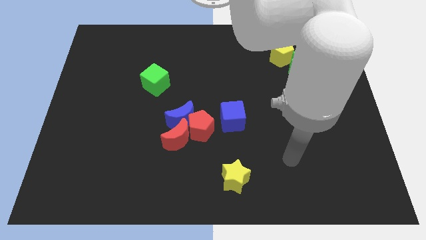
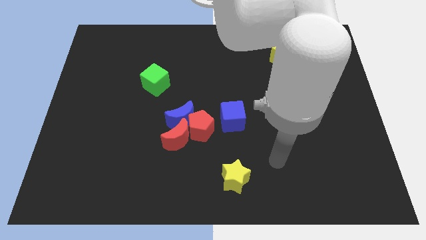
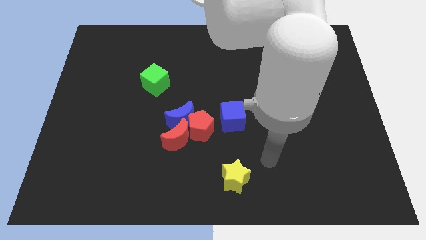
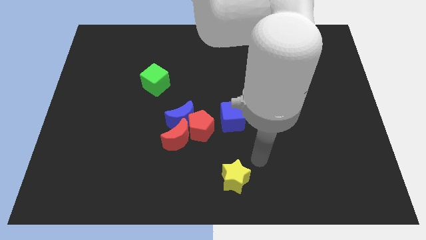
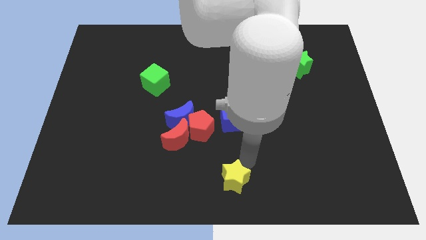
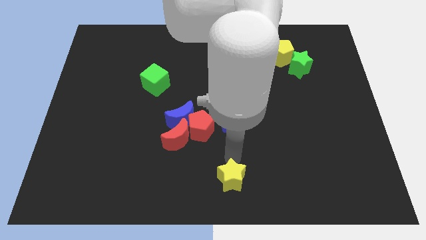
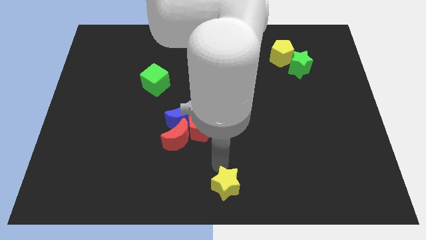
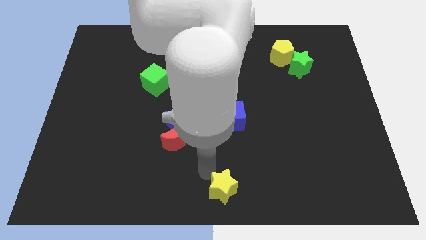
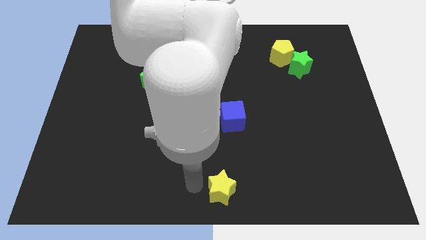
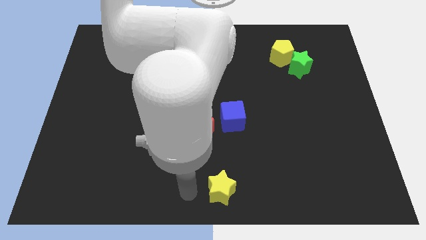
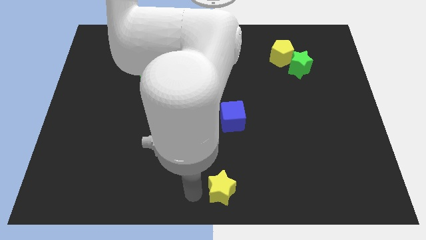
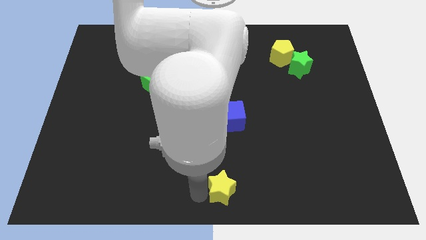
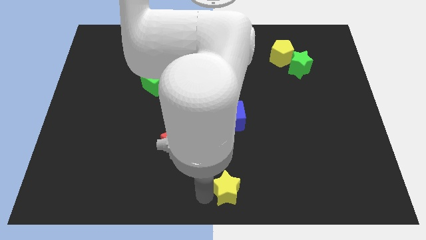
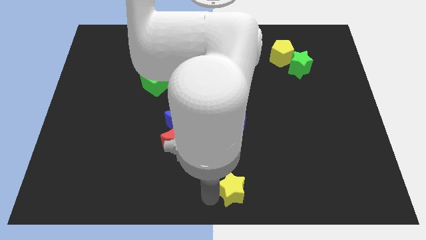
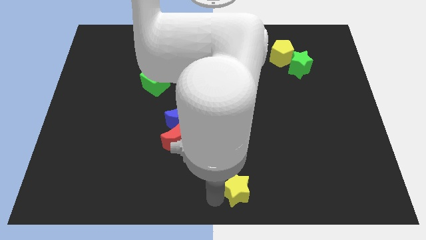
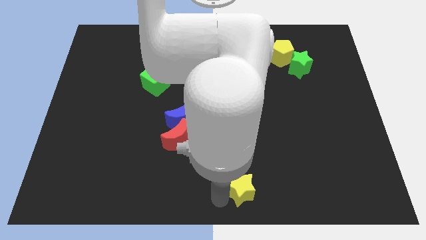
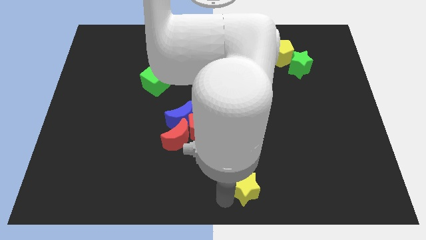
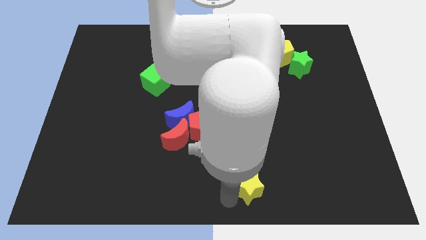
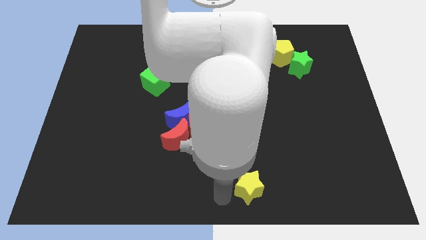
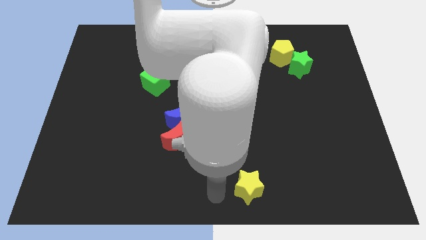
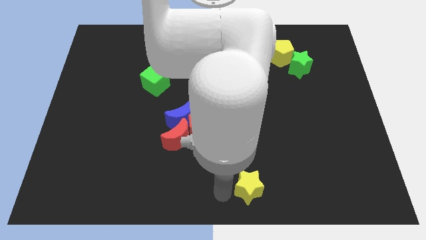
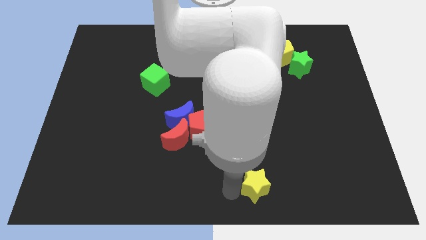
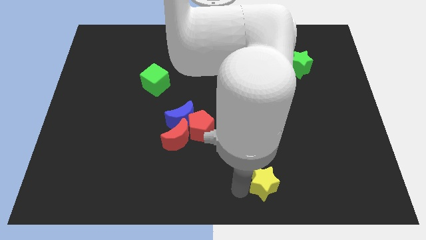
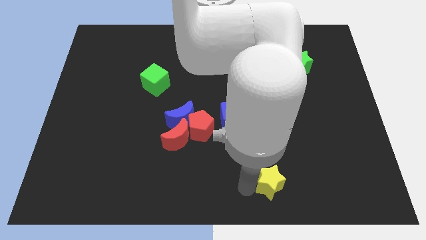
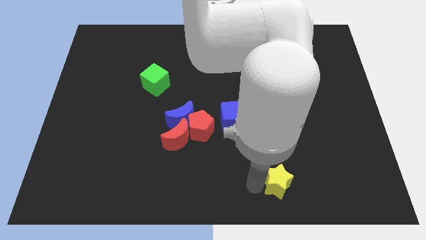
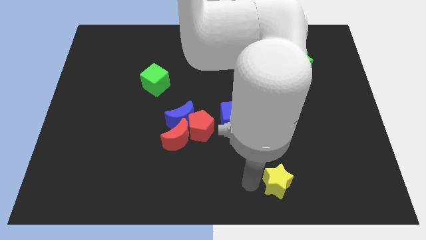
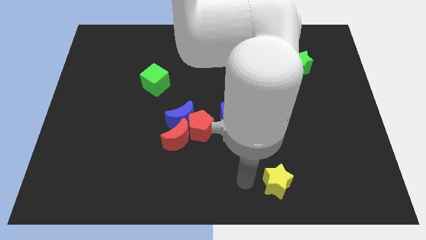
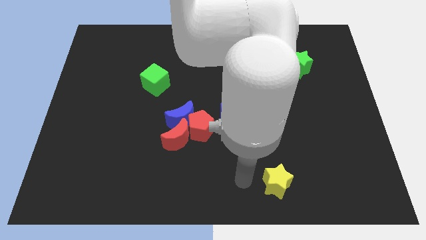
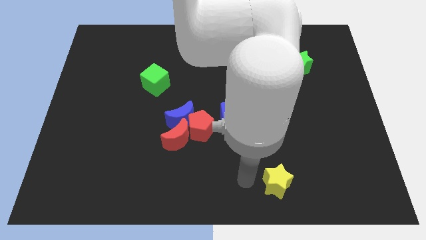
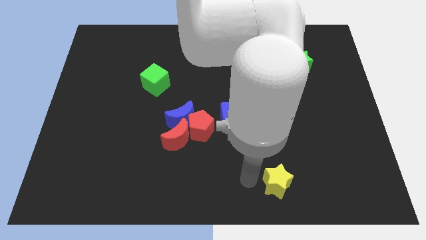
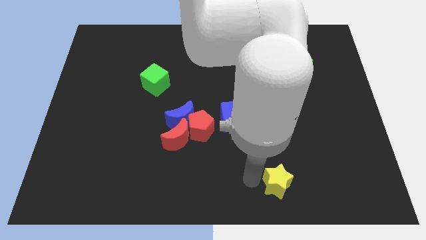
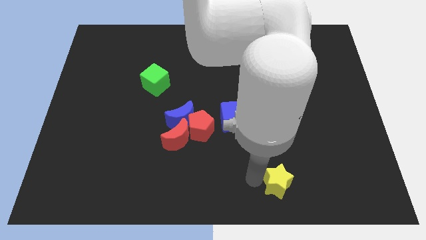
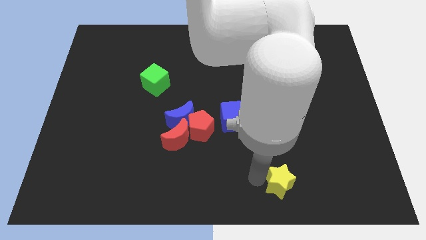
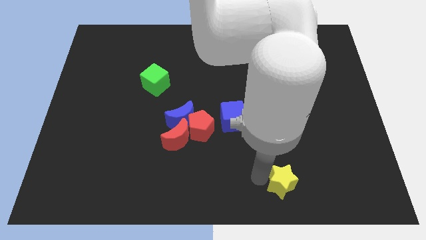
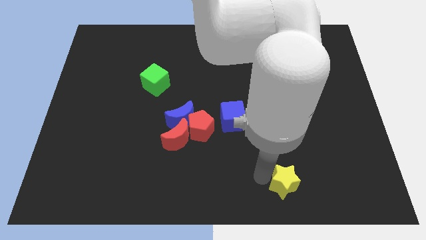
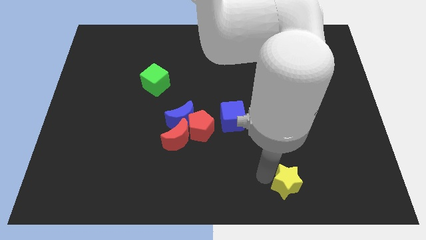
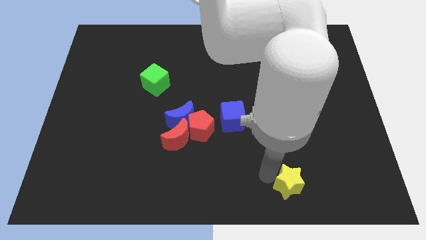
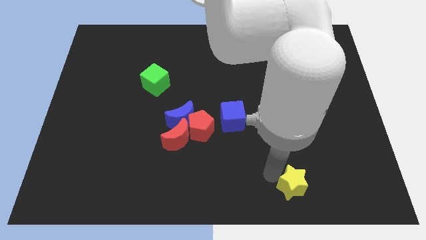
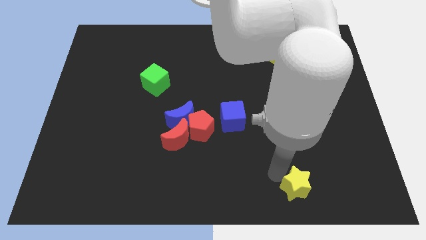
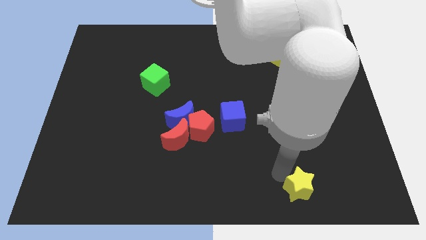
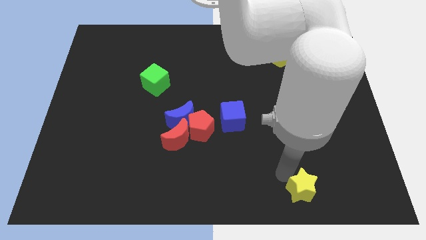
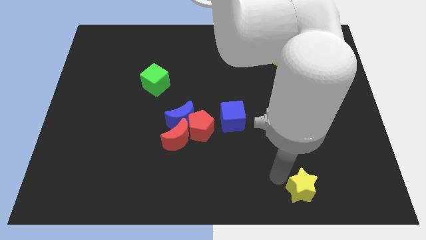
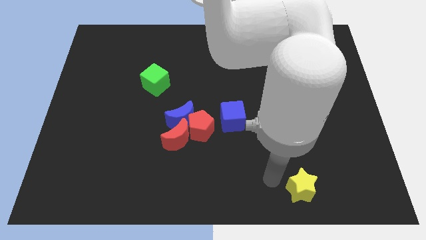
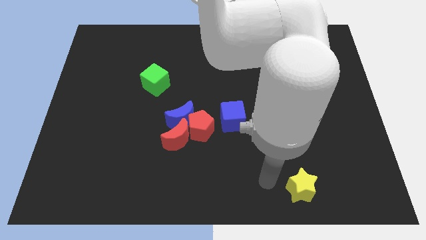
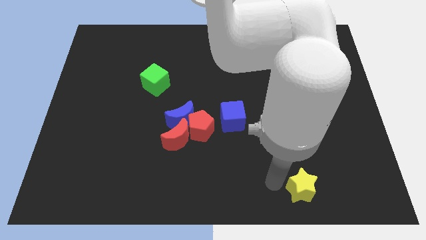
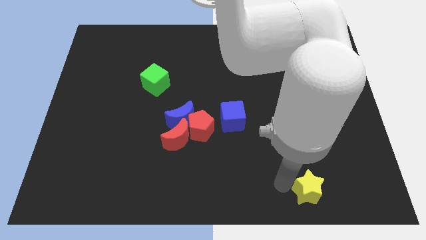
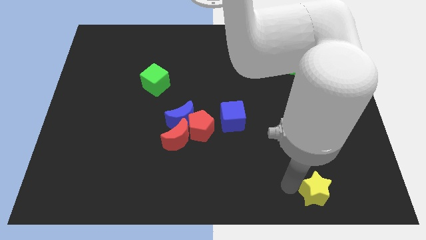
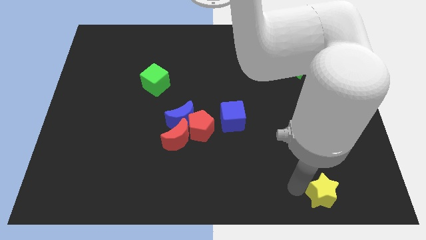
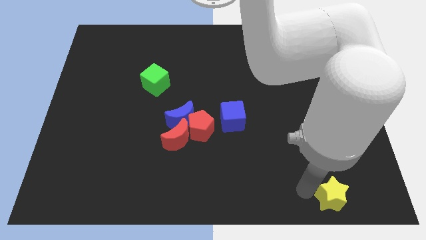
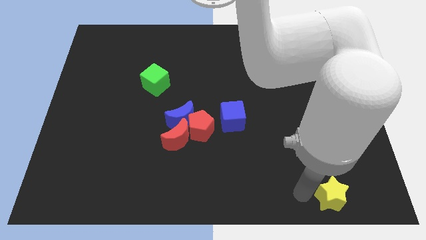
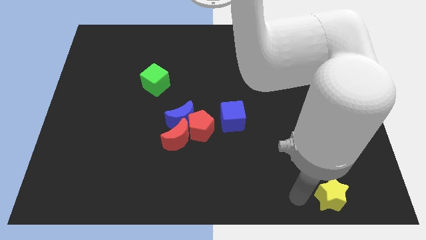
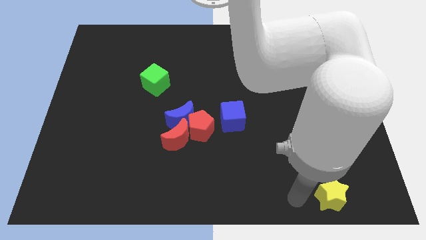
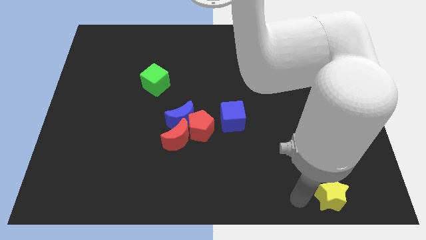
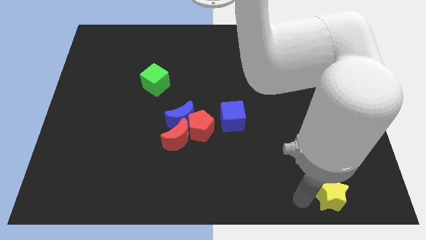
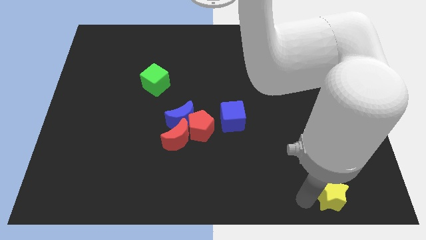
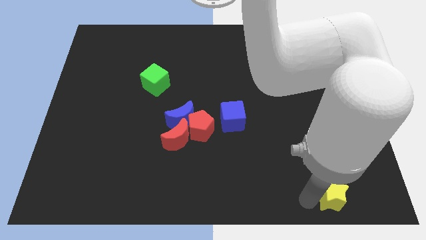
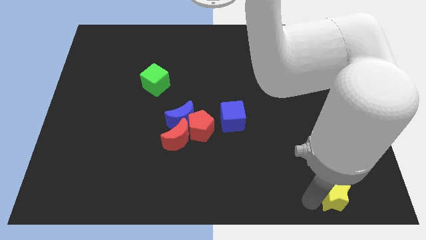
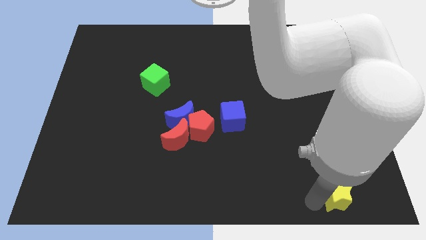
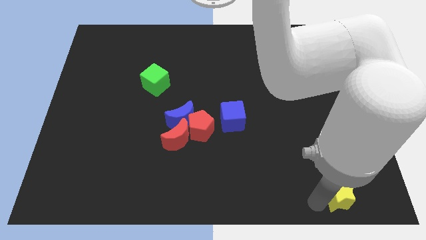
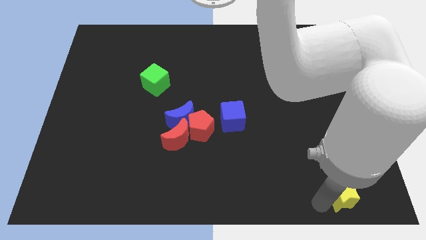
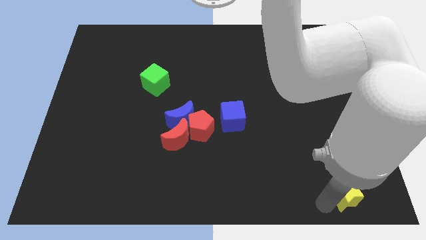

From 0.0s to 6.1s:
put the yellow star to the bottom right corner

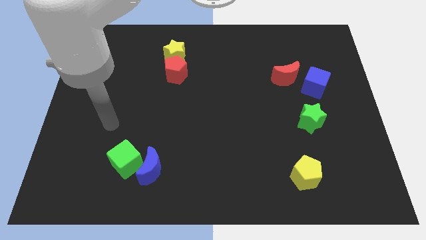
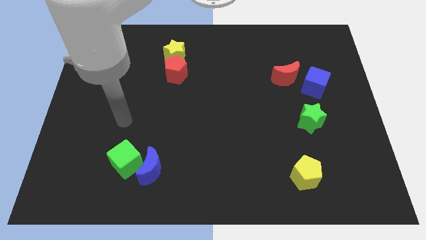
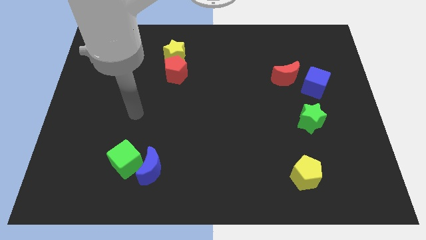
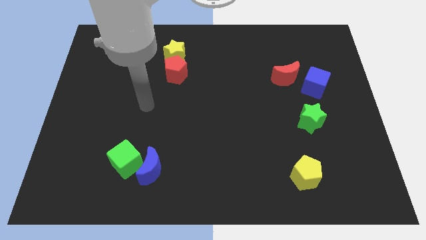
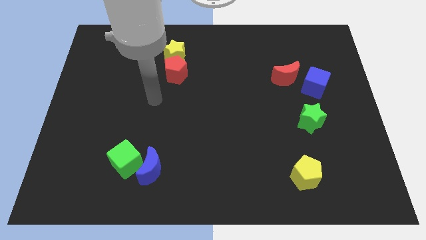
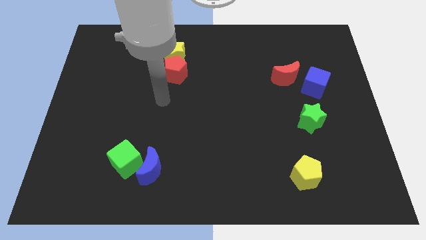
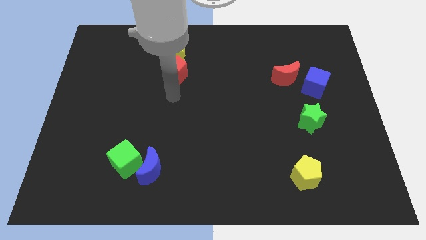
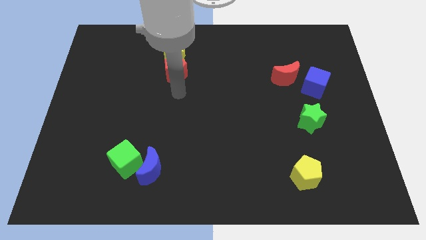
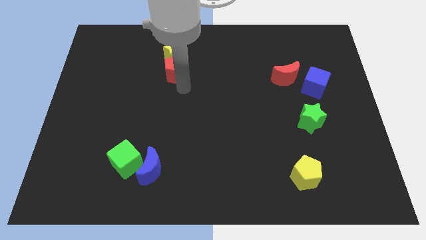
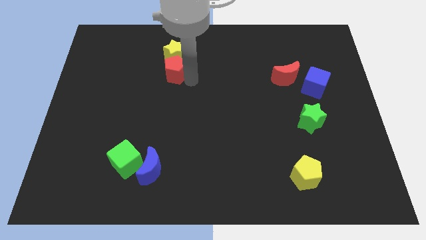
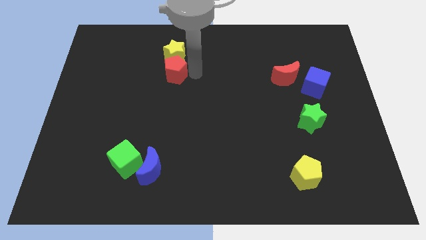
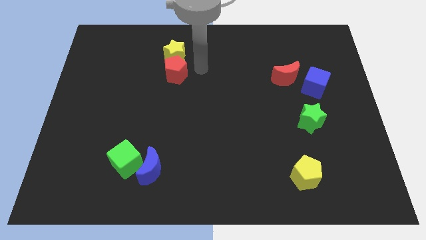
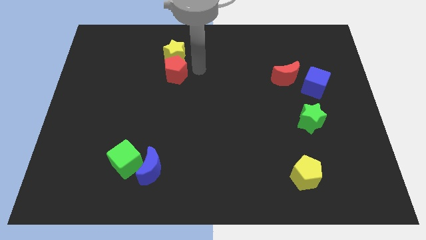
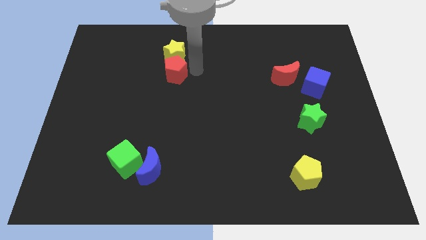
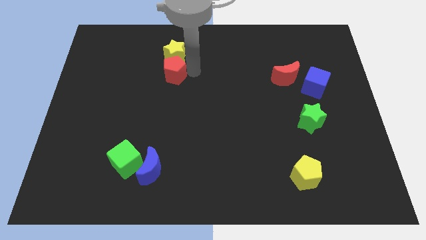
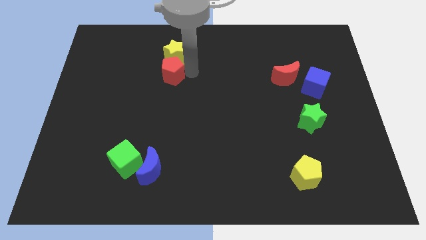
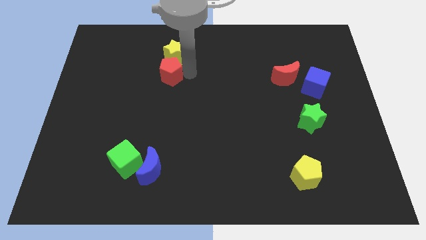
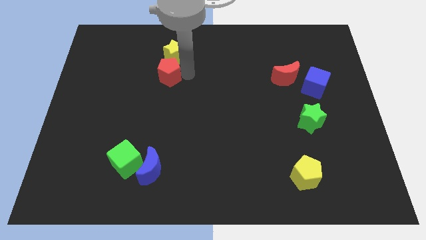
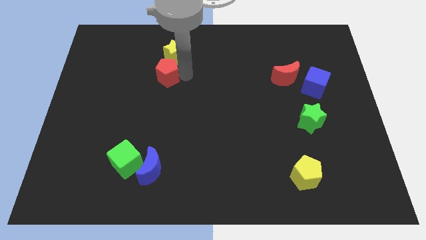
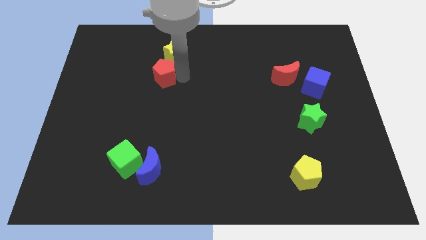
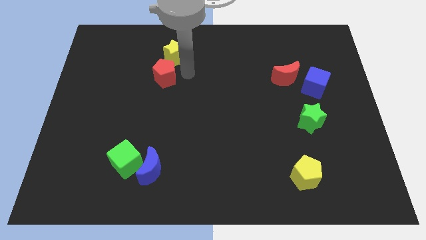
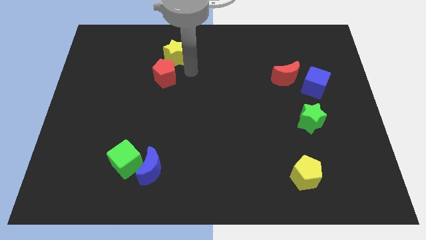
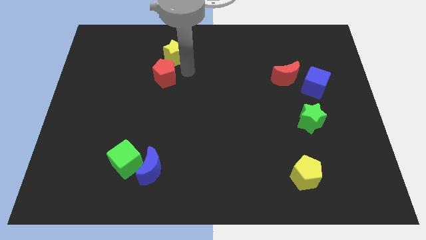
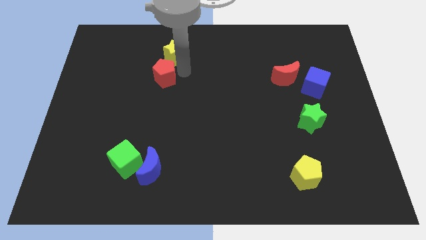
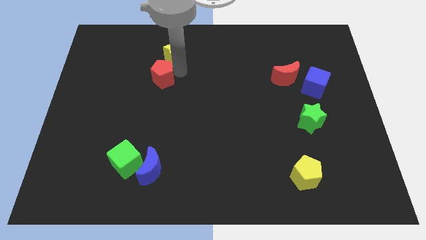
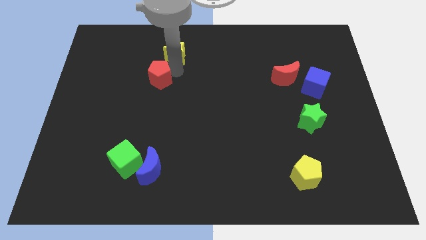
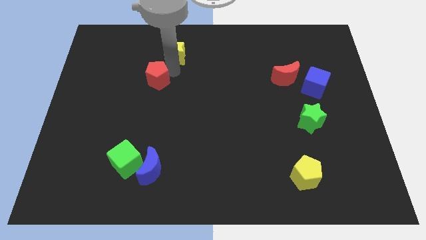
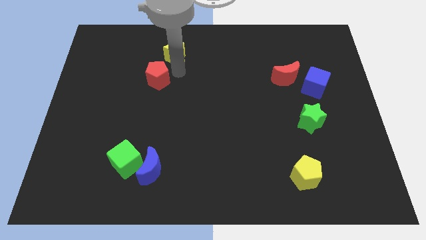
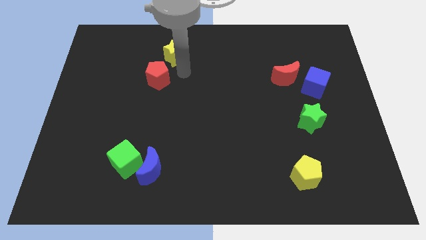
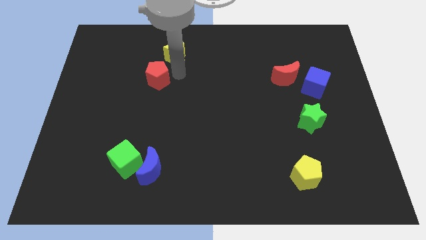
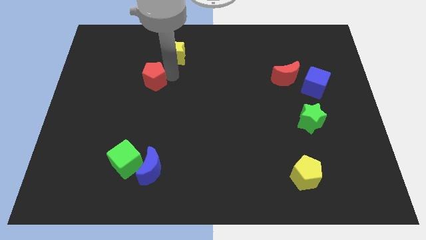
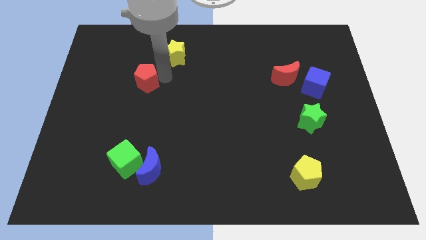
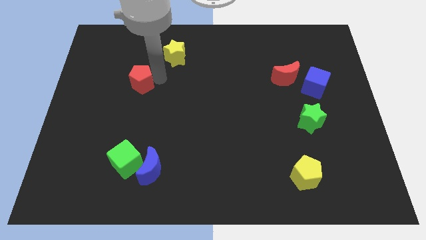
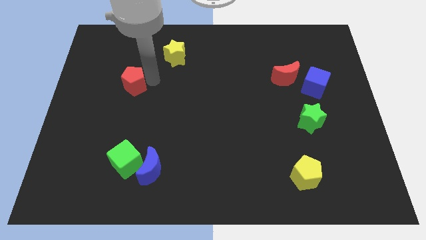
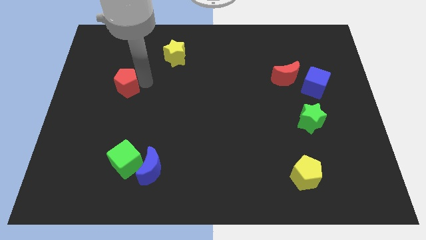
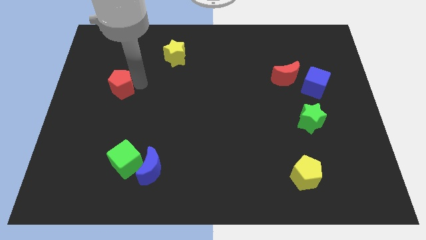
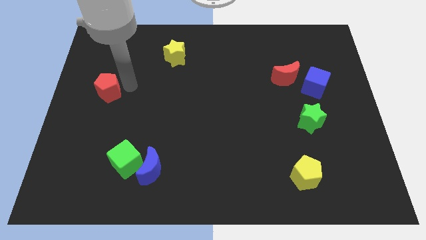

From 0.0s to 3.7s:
slide the red pentagon to the left side of the board
